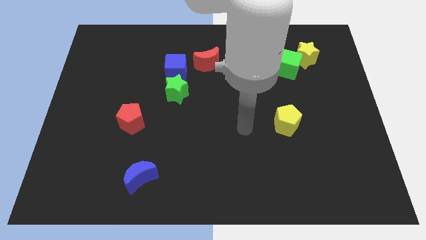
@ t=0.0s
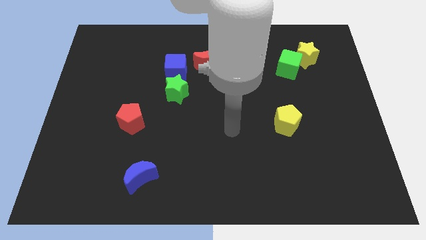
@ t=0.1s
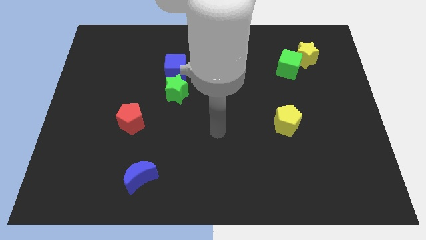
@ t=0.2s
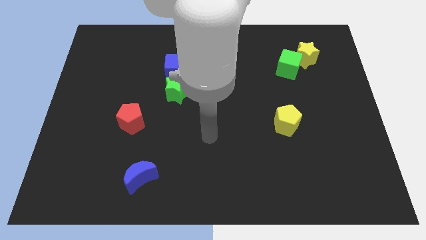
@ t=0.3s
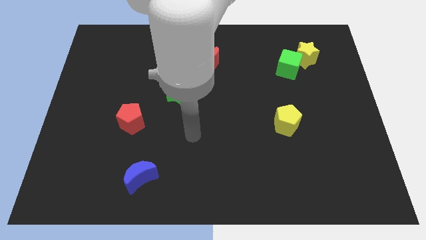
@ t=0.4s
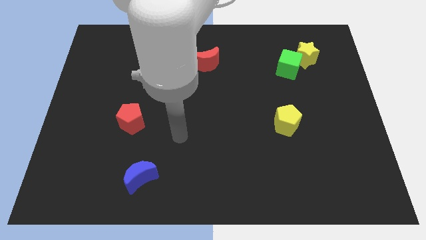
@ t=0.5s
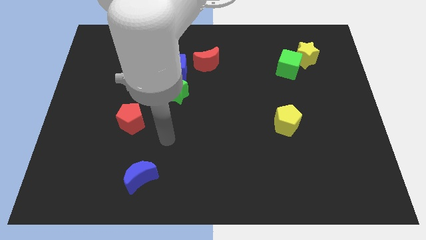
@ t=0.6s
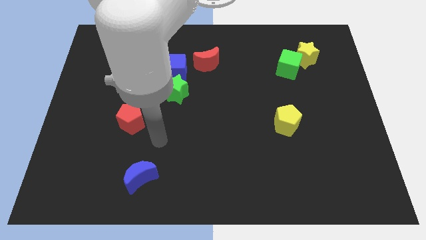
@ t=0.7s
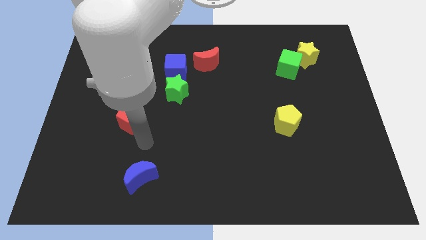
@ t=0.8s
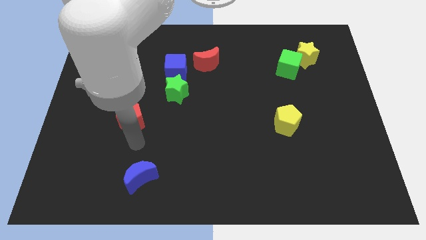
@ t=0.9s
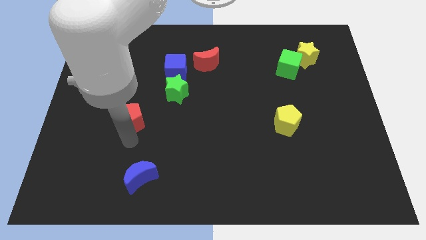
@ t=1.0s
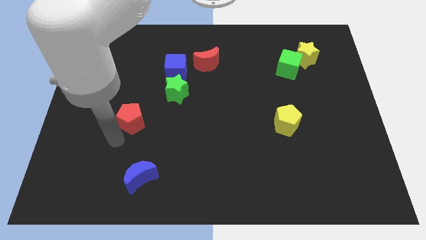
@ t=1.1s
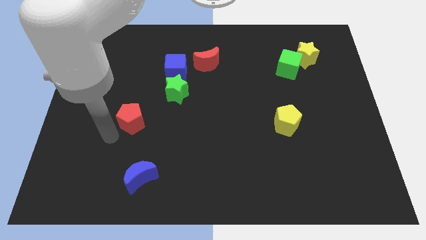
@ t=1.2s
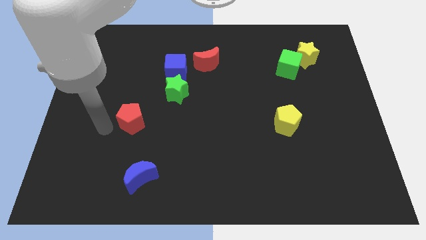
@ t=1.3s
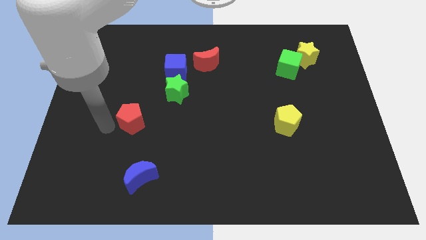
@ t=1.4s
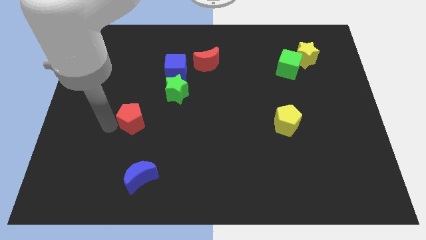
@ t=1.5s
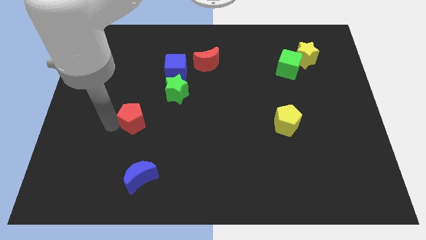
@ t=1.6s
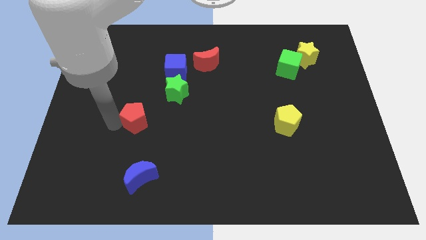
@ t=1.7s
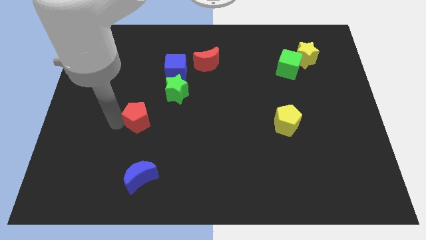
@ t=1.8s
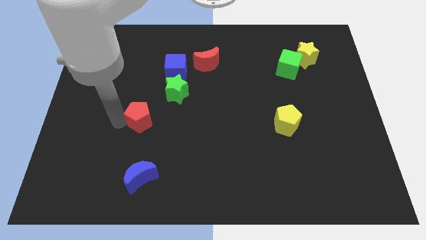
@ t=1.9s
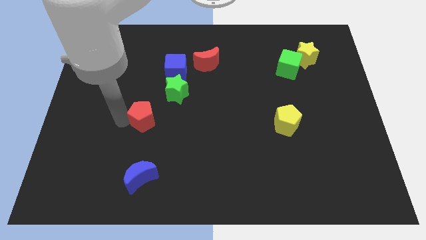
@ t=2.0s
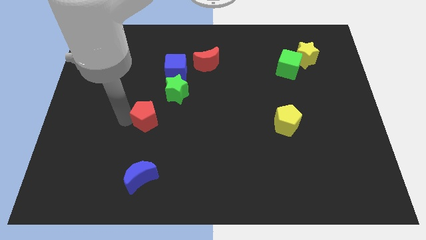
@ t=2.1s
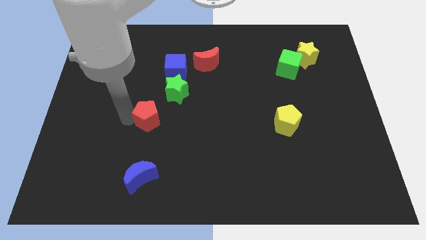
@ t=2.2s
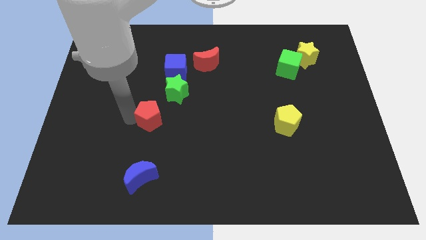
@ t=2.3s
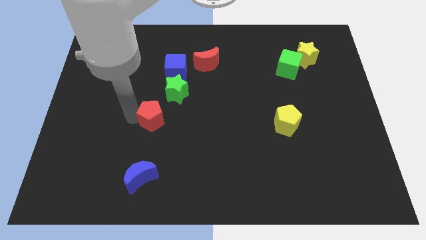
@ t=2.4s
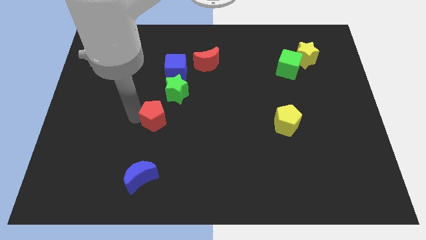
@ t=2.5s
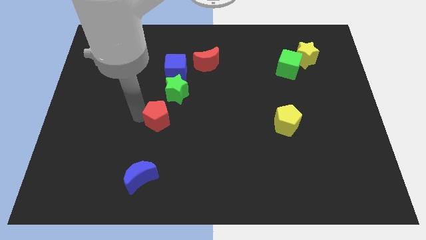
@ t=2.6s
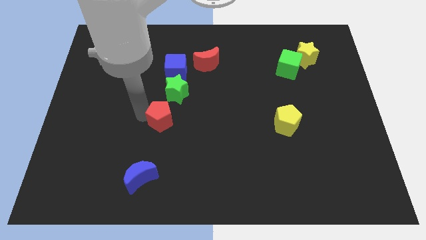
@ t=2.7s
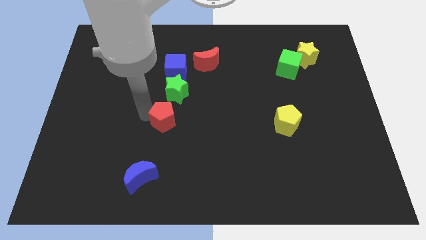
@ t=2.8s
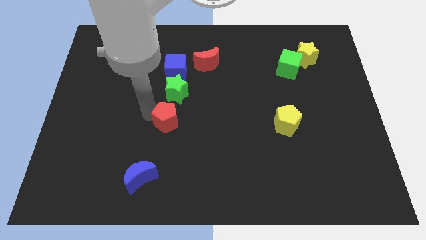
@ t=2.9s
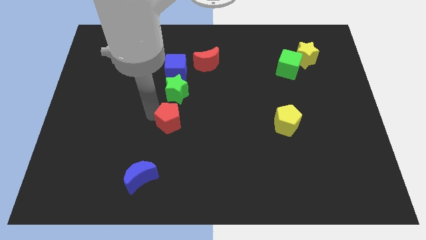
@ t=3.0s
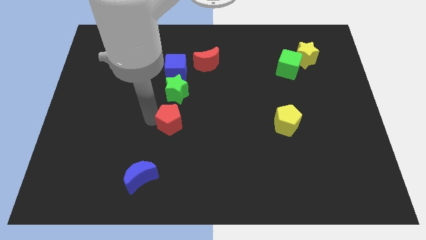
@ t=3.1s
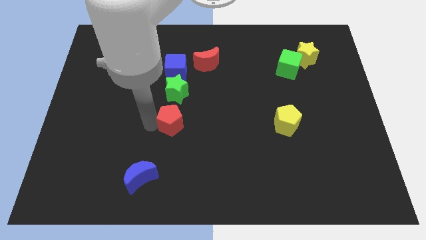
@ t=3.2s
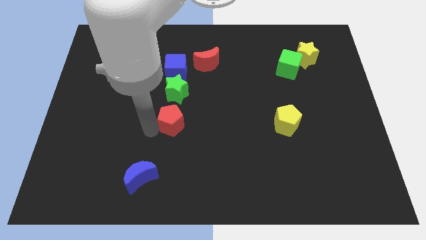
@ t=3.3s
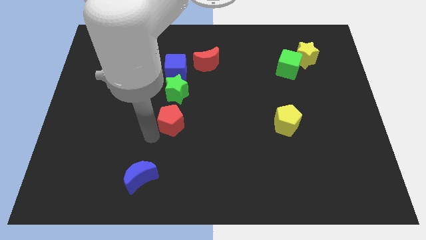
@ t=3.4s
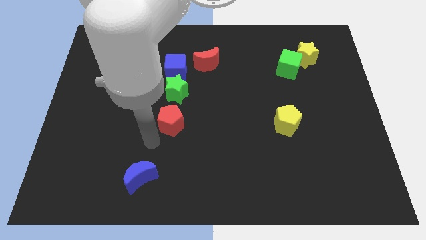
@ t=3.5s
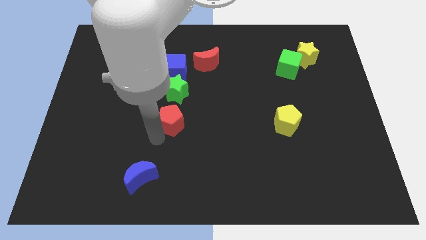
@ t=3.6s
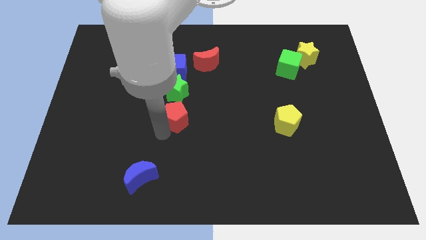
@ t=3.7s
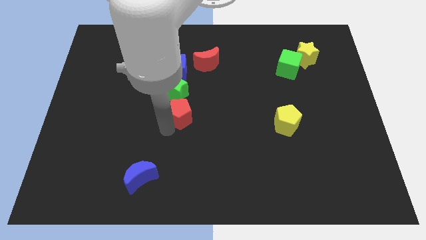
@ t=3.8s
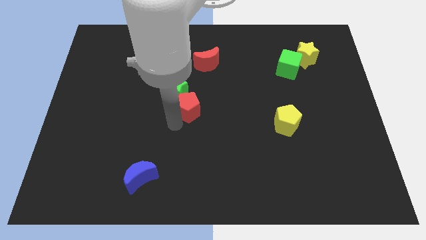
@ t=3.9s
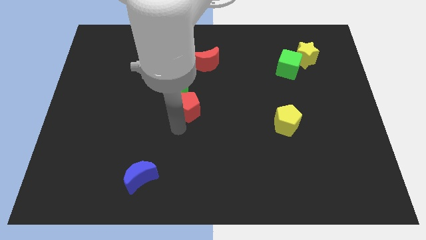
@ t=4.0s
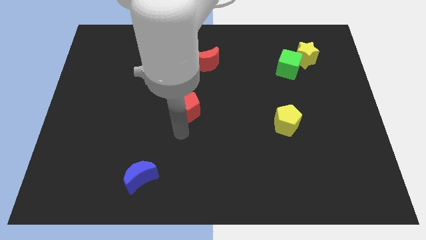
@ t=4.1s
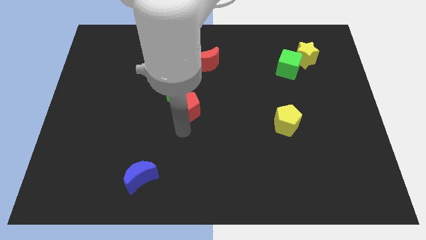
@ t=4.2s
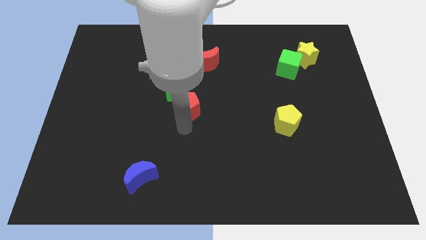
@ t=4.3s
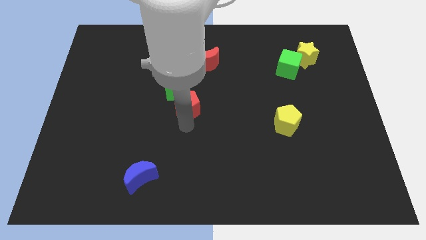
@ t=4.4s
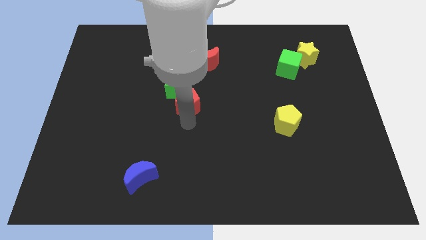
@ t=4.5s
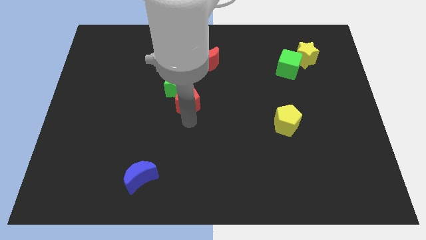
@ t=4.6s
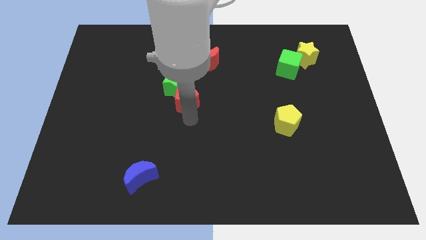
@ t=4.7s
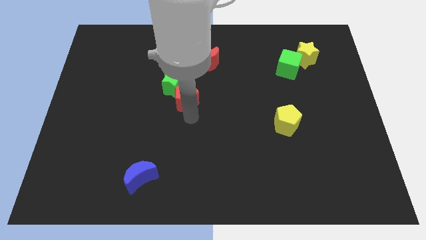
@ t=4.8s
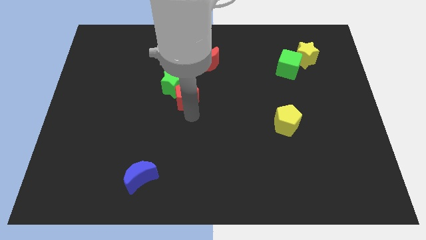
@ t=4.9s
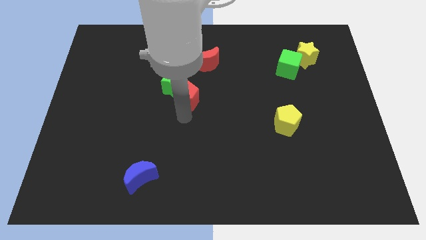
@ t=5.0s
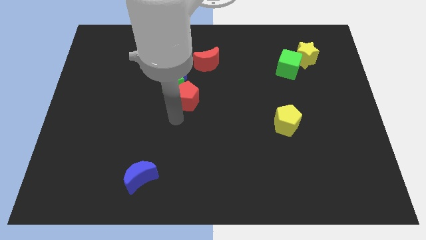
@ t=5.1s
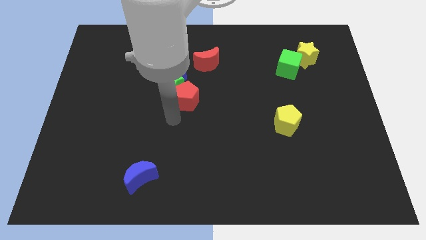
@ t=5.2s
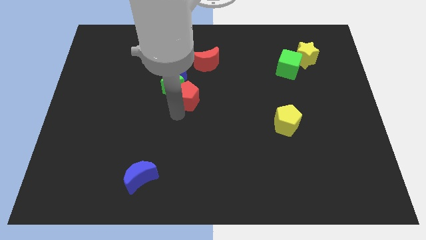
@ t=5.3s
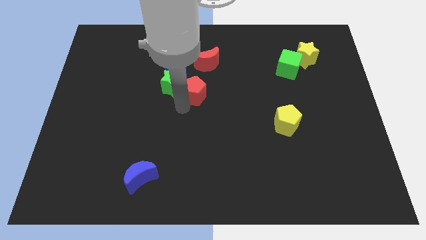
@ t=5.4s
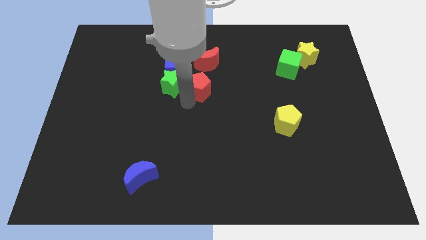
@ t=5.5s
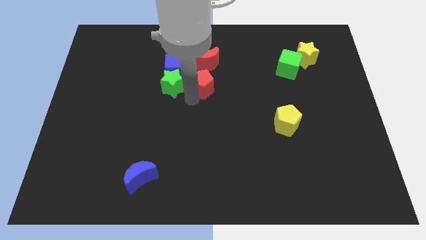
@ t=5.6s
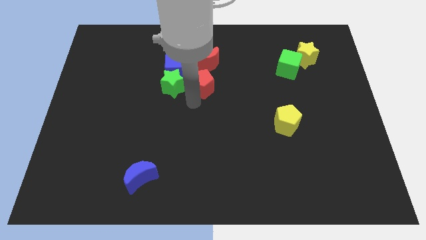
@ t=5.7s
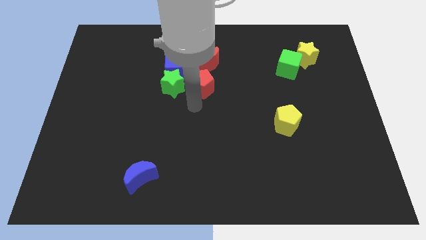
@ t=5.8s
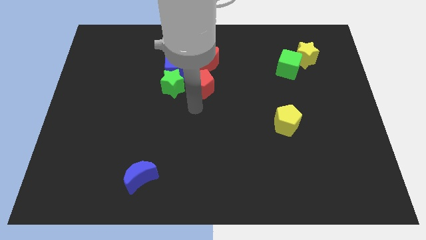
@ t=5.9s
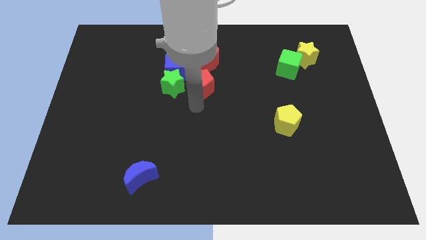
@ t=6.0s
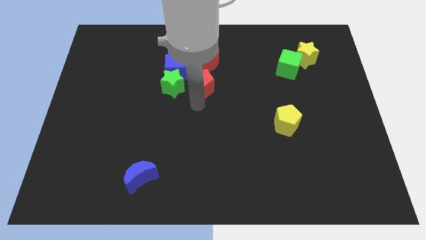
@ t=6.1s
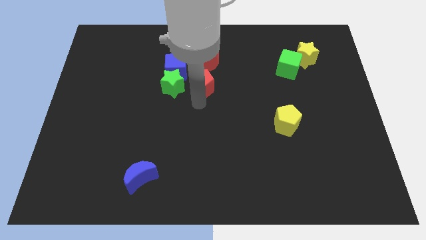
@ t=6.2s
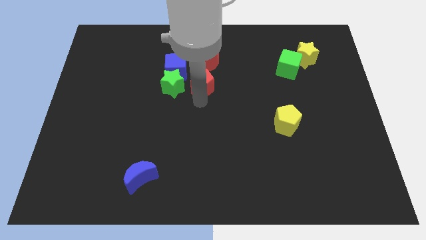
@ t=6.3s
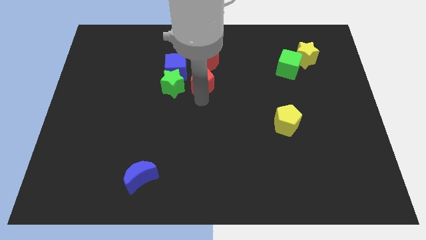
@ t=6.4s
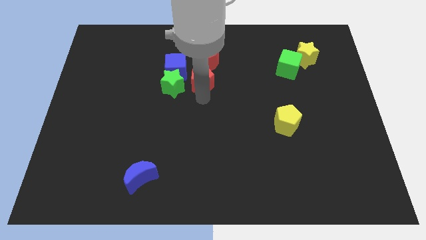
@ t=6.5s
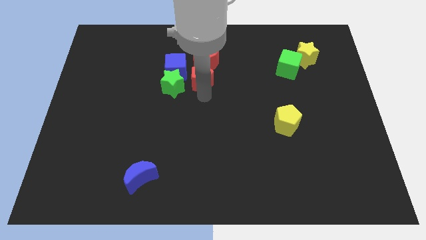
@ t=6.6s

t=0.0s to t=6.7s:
push the red pentagon next to the red moon

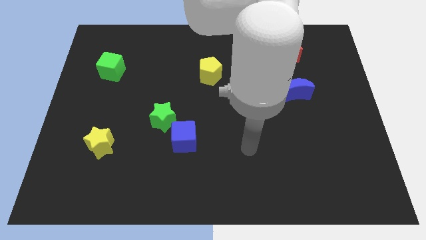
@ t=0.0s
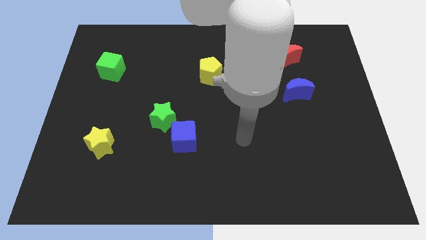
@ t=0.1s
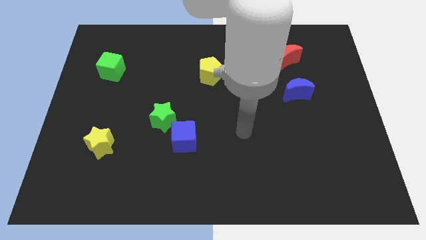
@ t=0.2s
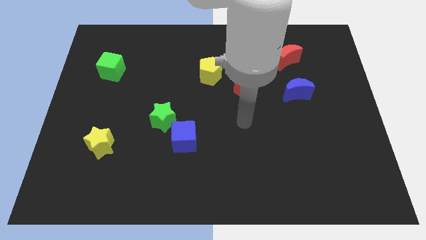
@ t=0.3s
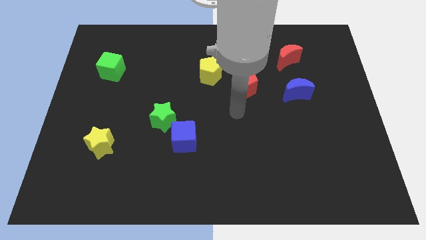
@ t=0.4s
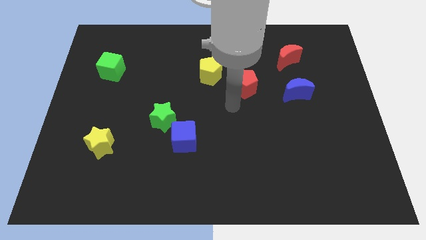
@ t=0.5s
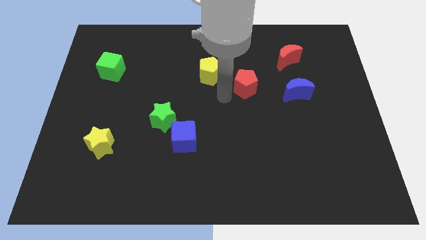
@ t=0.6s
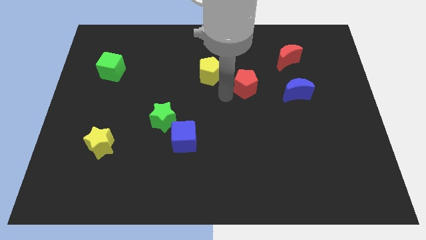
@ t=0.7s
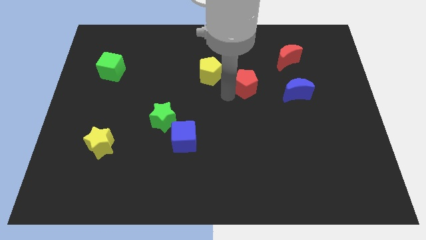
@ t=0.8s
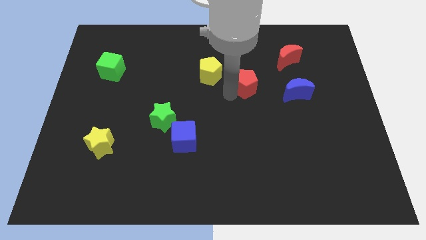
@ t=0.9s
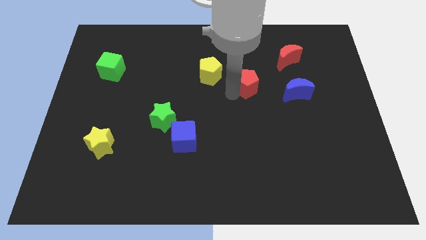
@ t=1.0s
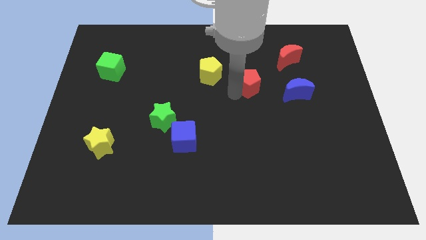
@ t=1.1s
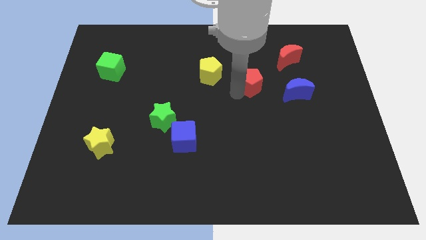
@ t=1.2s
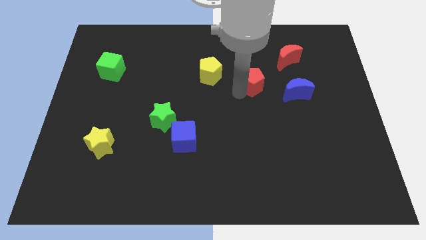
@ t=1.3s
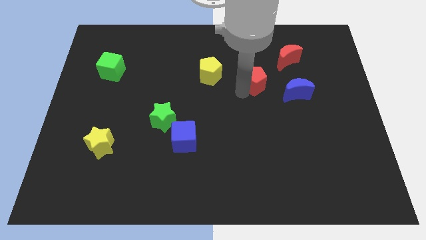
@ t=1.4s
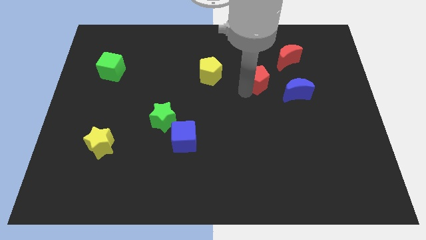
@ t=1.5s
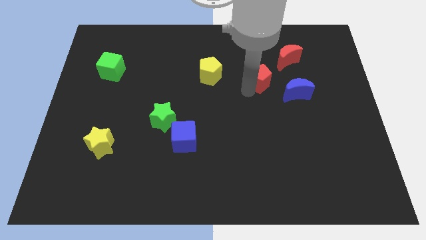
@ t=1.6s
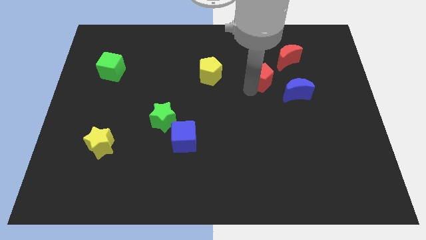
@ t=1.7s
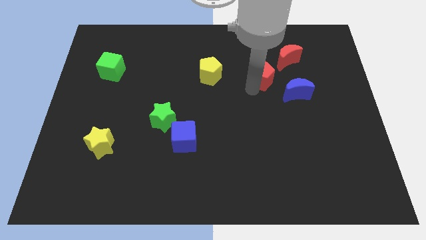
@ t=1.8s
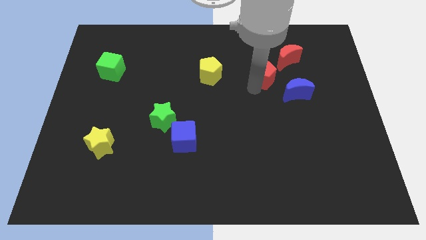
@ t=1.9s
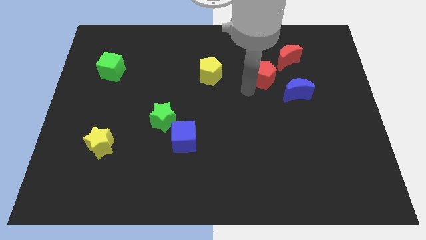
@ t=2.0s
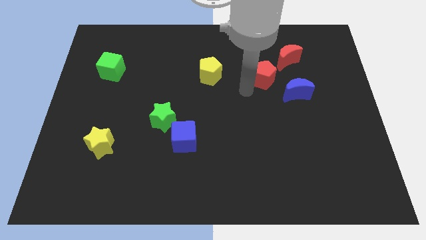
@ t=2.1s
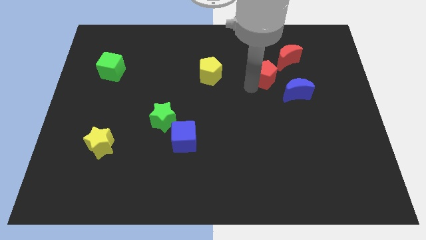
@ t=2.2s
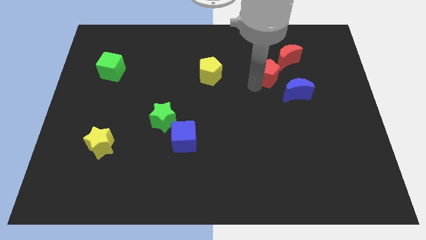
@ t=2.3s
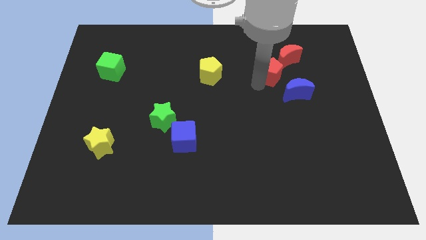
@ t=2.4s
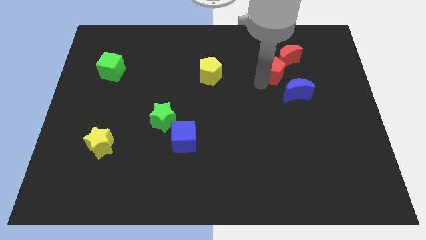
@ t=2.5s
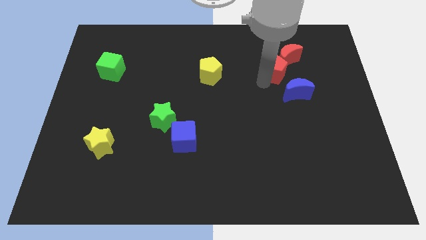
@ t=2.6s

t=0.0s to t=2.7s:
put the red pentagon to the red moon
